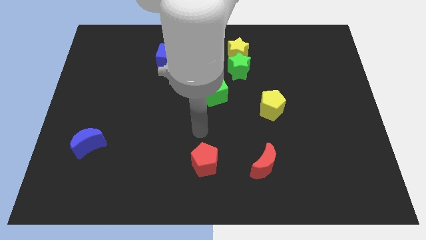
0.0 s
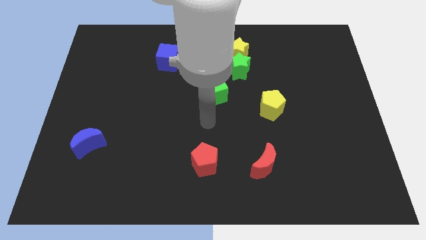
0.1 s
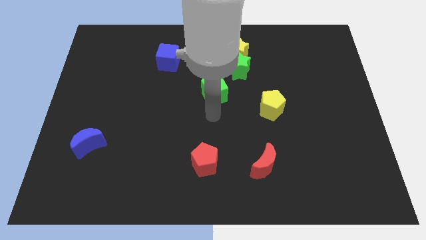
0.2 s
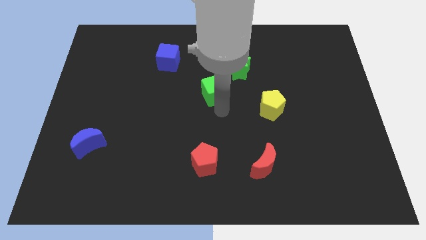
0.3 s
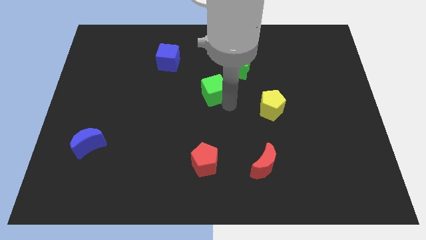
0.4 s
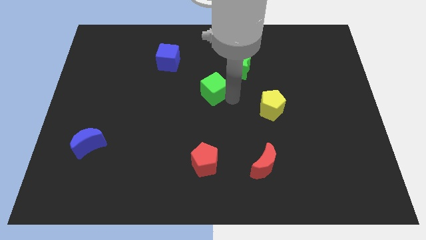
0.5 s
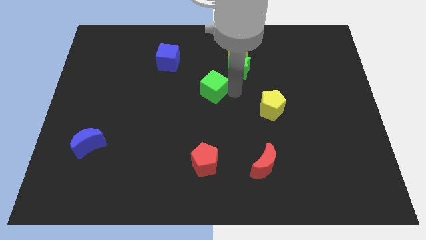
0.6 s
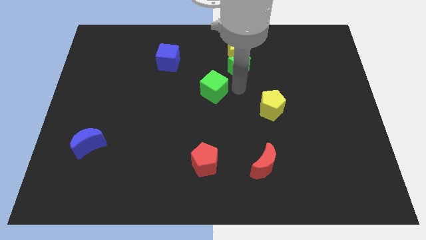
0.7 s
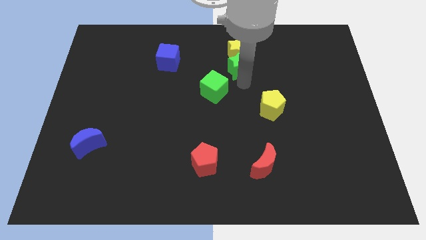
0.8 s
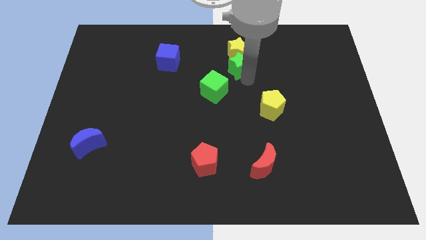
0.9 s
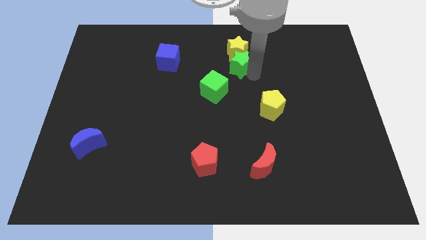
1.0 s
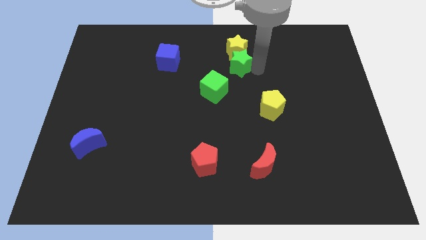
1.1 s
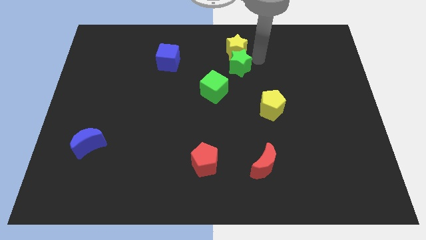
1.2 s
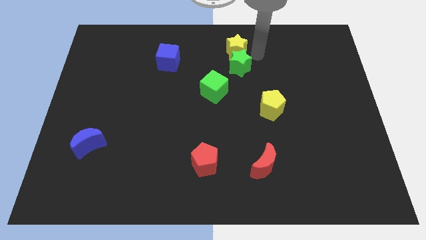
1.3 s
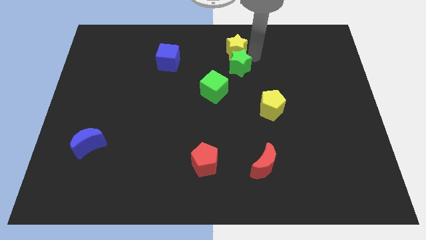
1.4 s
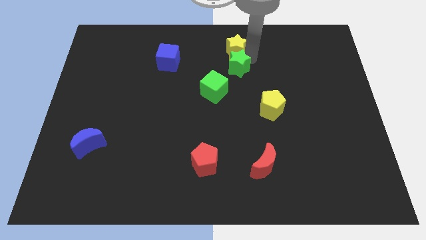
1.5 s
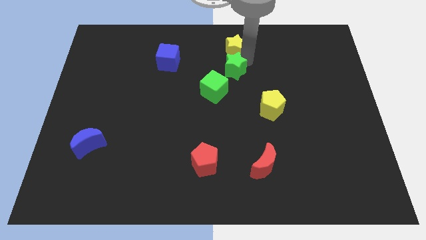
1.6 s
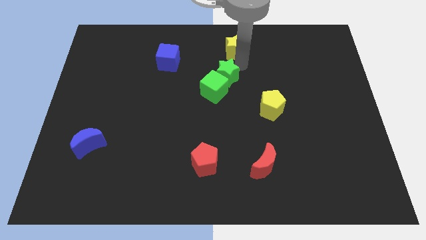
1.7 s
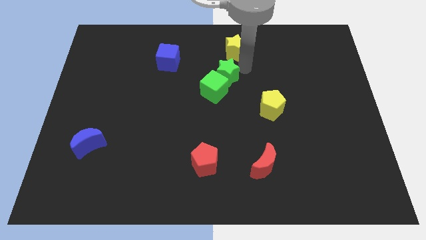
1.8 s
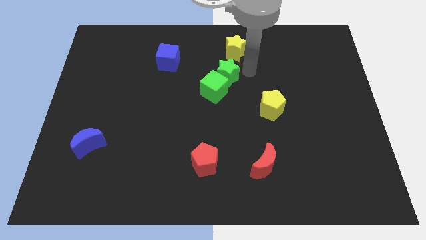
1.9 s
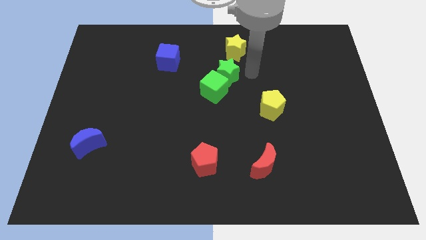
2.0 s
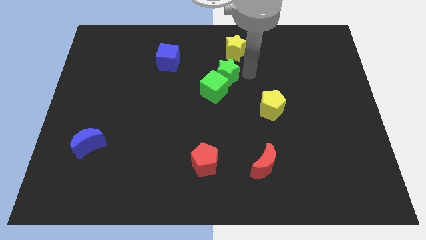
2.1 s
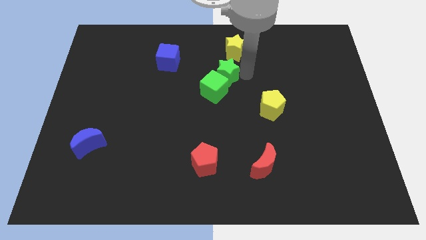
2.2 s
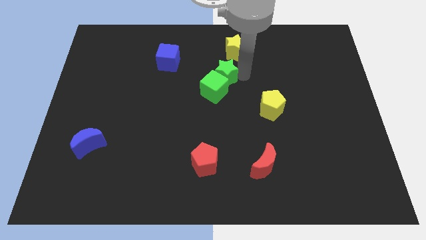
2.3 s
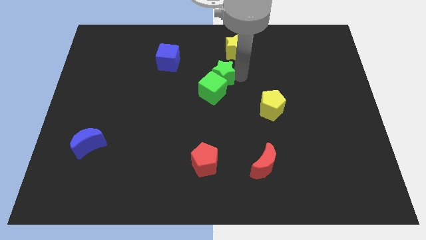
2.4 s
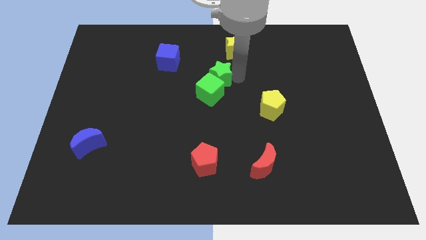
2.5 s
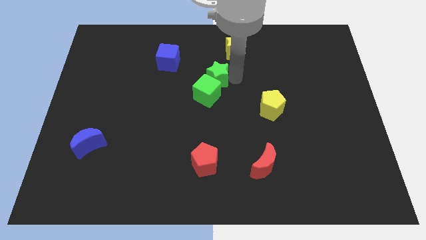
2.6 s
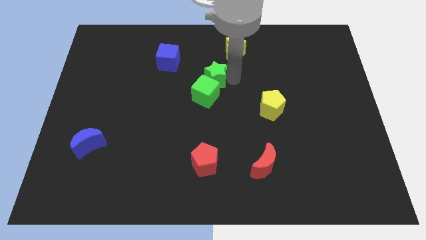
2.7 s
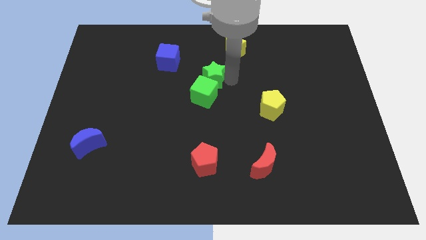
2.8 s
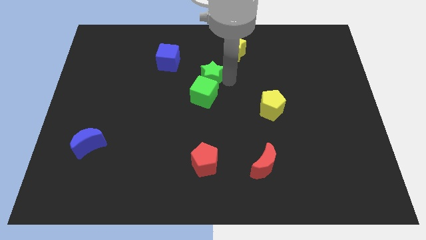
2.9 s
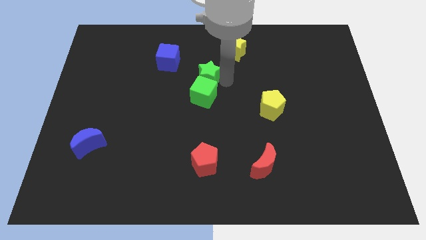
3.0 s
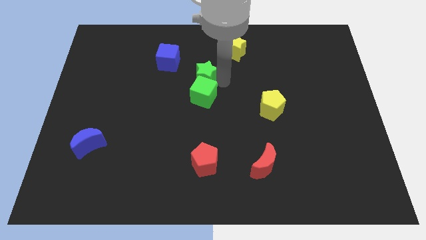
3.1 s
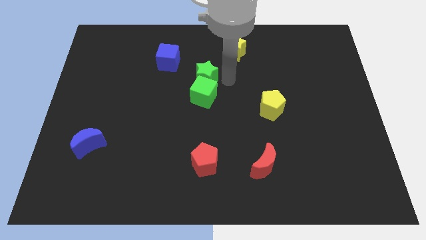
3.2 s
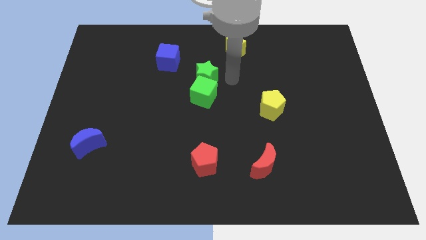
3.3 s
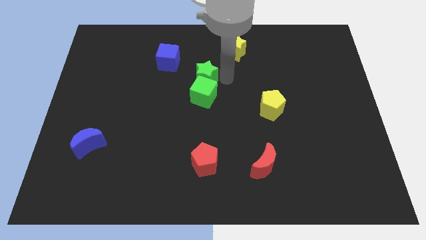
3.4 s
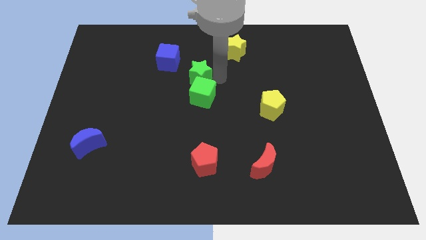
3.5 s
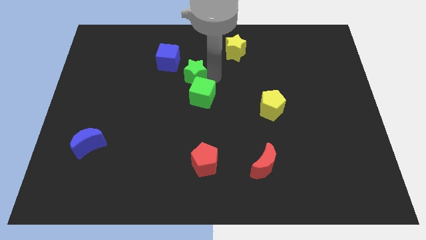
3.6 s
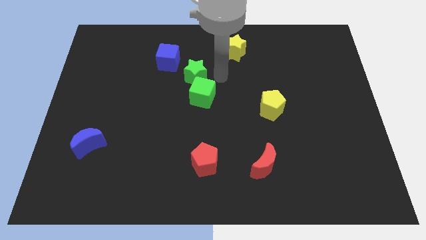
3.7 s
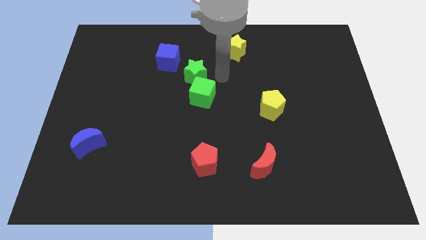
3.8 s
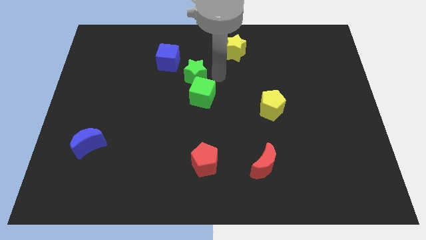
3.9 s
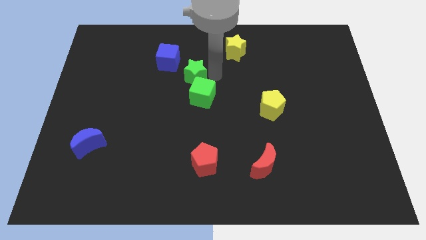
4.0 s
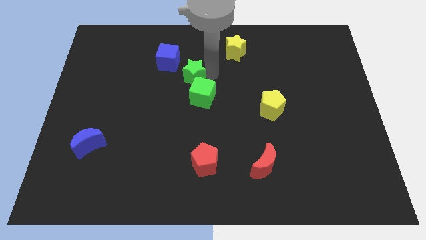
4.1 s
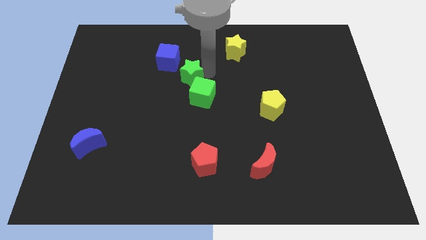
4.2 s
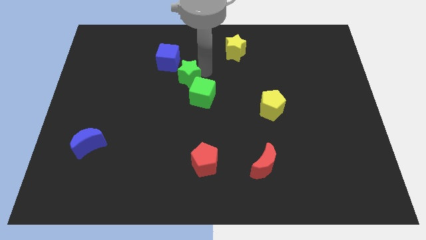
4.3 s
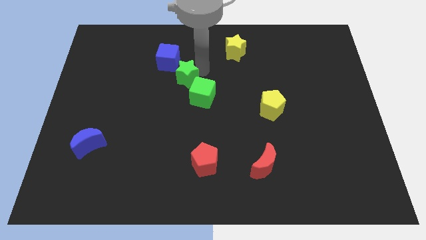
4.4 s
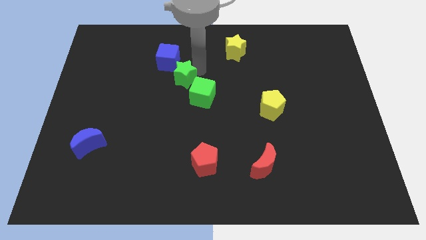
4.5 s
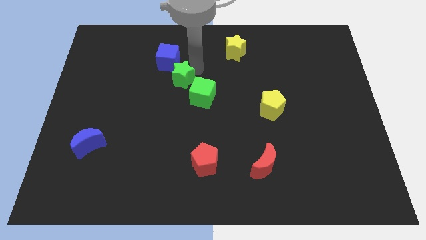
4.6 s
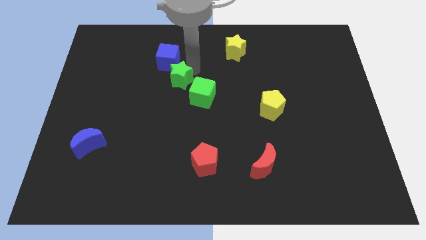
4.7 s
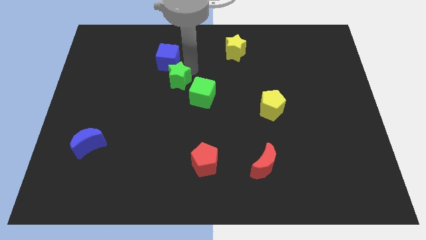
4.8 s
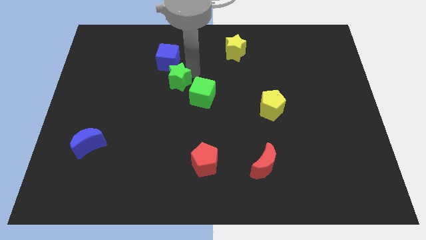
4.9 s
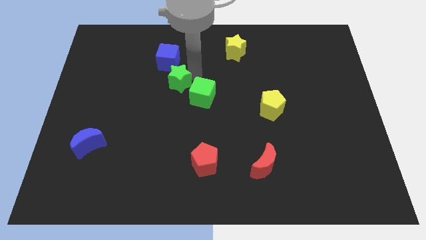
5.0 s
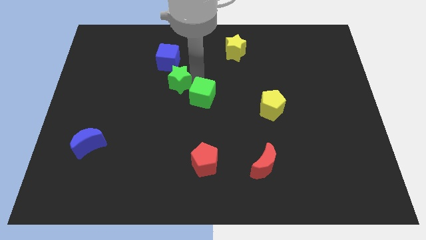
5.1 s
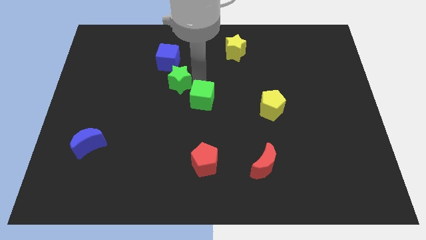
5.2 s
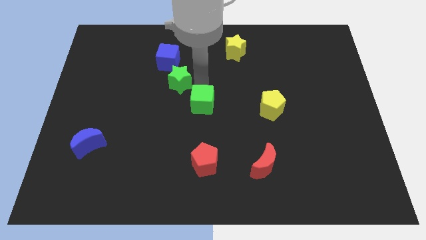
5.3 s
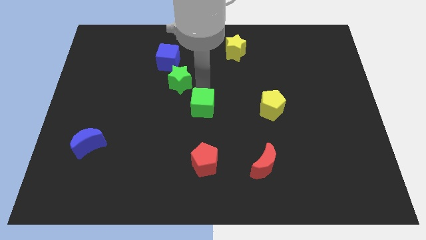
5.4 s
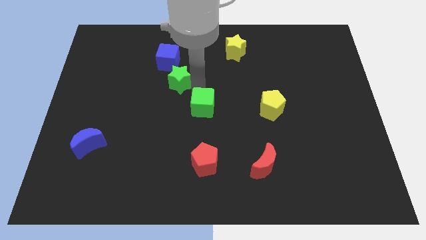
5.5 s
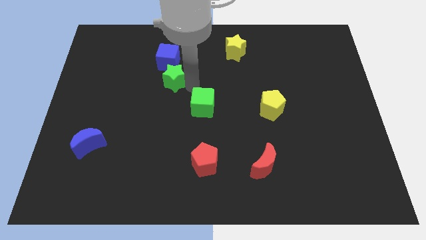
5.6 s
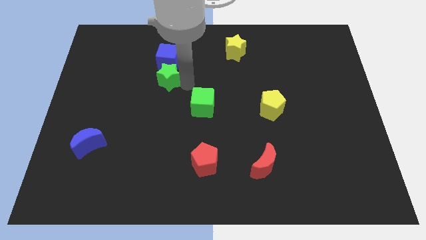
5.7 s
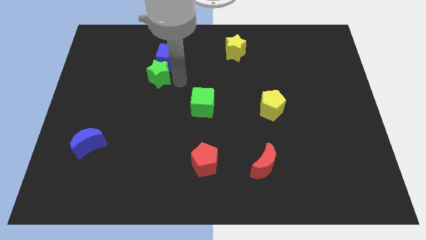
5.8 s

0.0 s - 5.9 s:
push the green star to the left

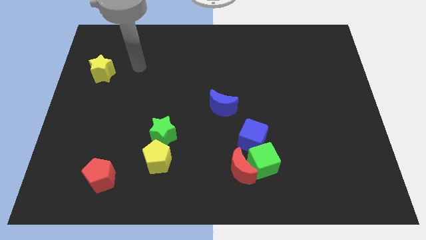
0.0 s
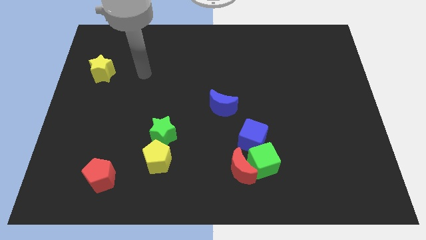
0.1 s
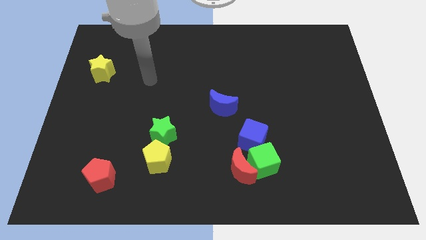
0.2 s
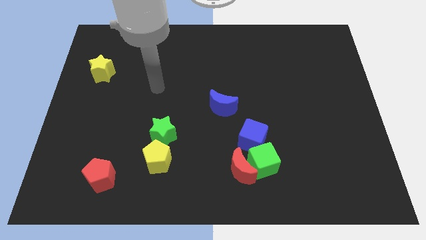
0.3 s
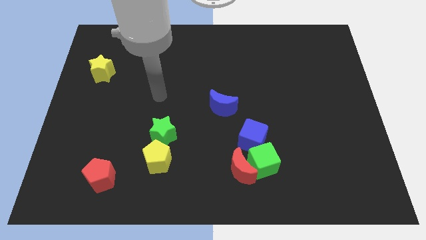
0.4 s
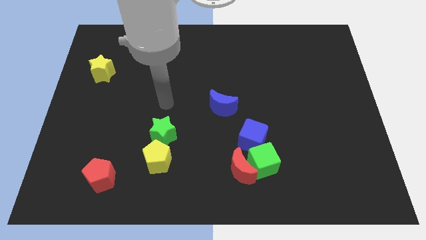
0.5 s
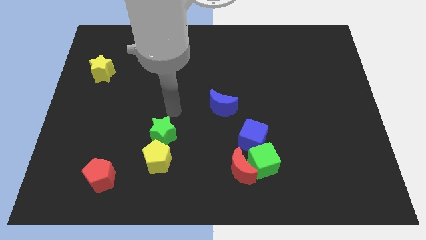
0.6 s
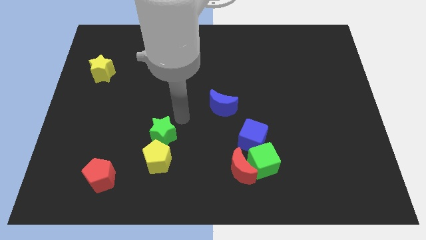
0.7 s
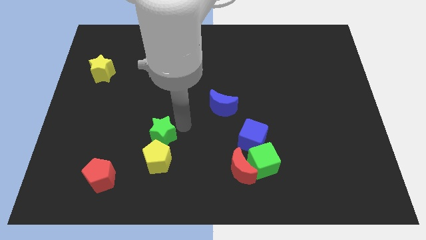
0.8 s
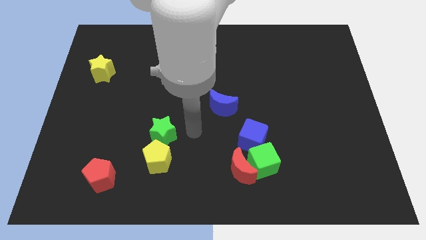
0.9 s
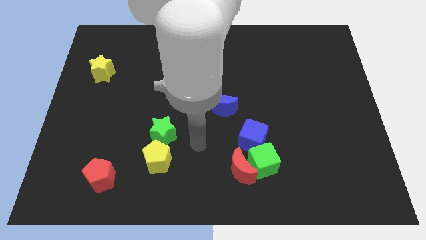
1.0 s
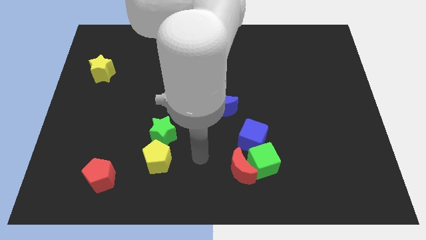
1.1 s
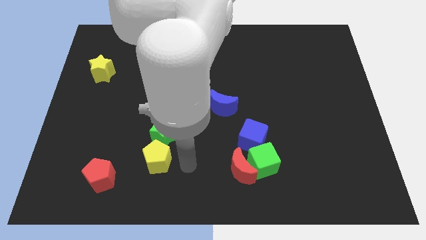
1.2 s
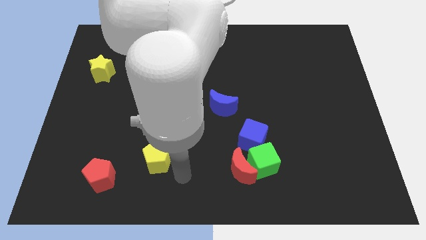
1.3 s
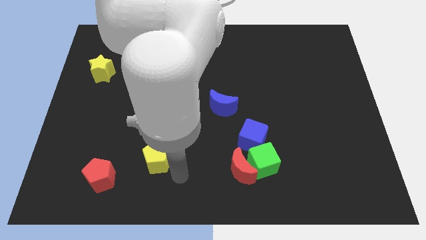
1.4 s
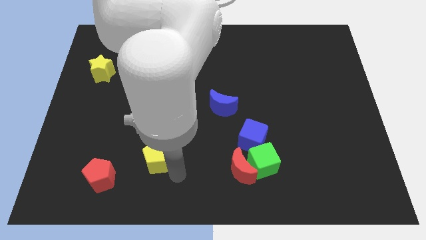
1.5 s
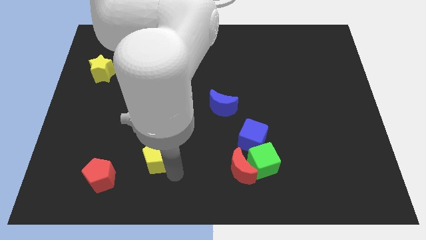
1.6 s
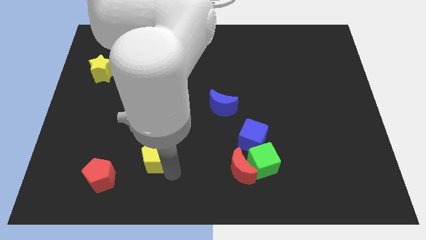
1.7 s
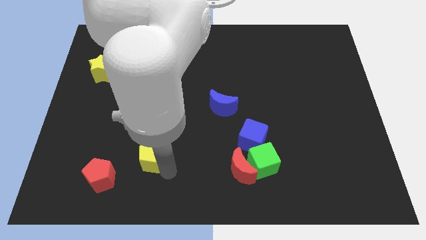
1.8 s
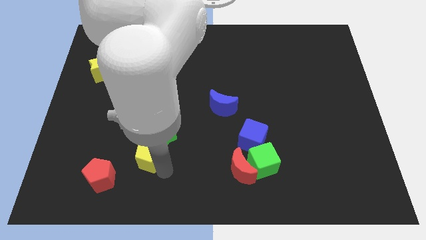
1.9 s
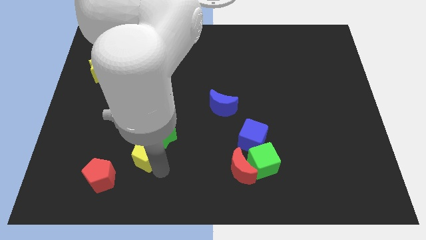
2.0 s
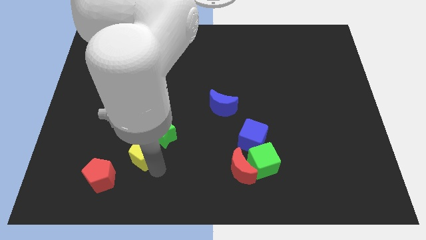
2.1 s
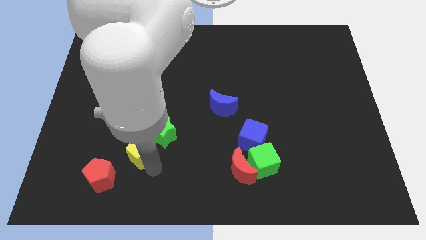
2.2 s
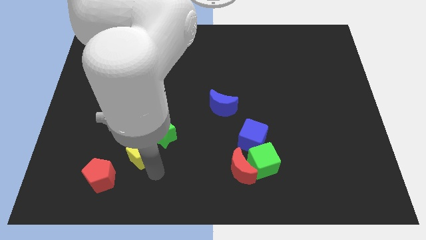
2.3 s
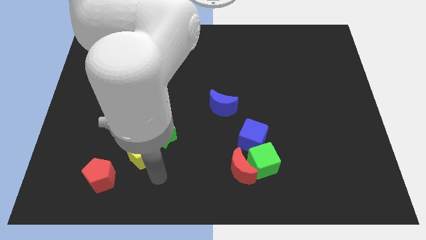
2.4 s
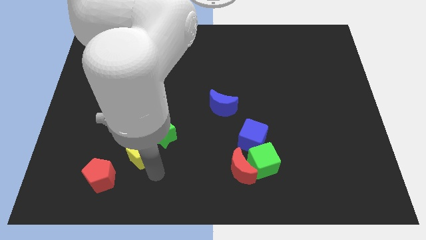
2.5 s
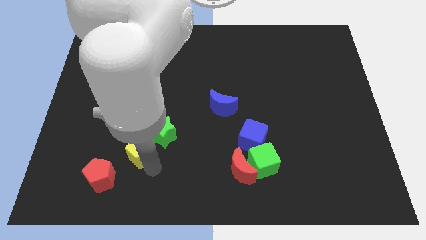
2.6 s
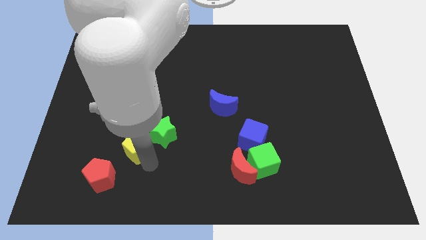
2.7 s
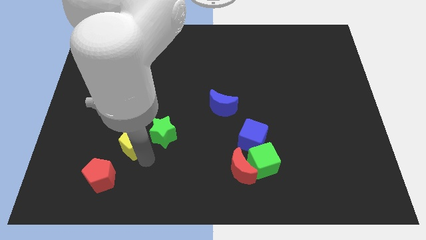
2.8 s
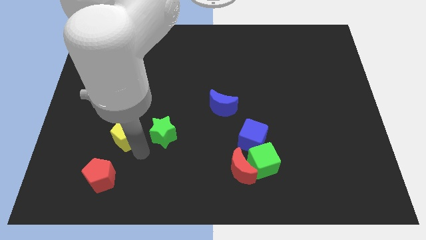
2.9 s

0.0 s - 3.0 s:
slightly push the yellow pentagon upwards and then to the left
